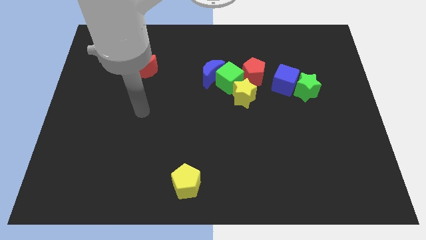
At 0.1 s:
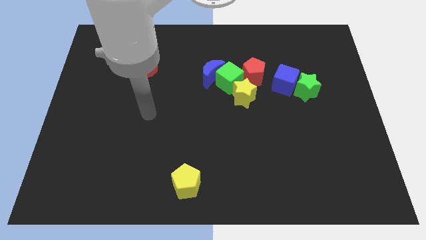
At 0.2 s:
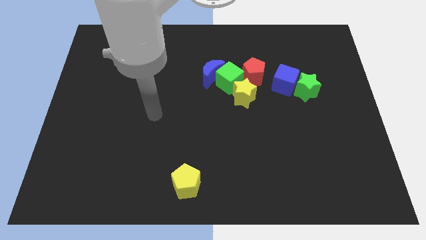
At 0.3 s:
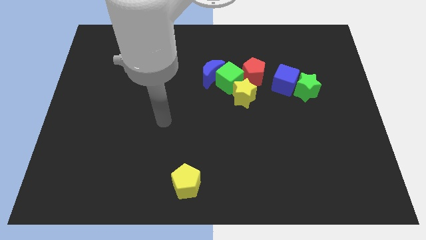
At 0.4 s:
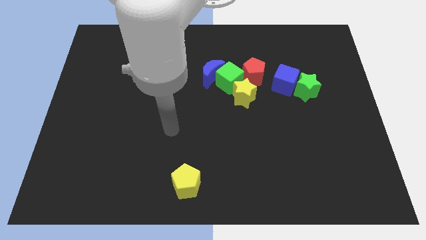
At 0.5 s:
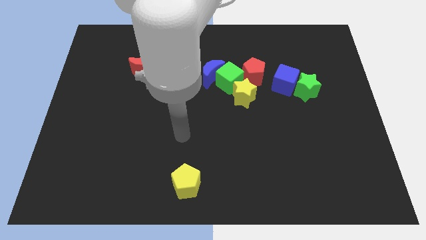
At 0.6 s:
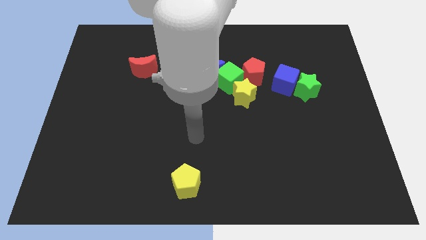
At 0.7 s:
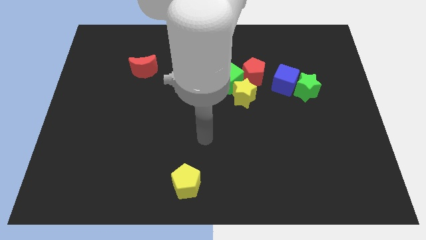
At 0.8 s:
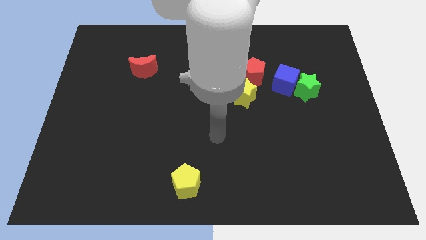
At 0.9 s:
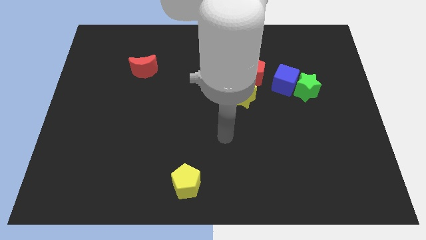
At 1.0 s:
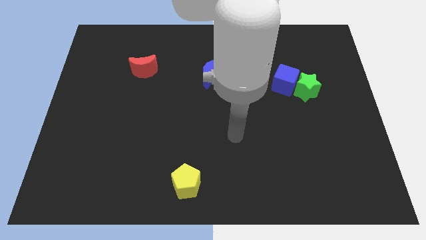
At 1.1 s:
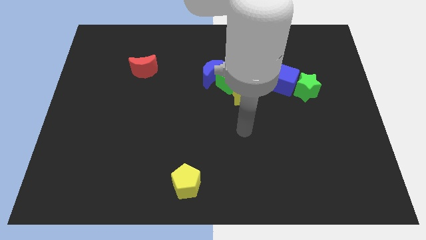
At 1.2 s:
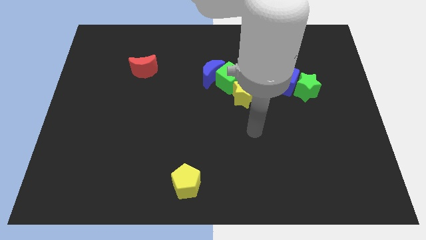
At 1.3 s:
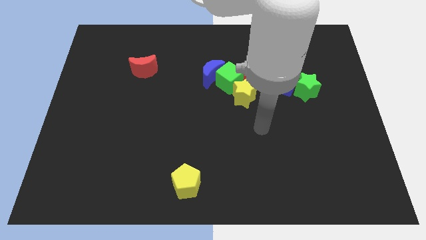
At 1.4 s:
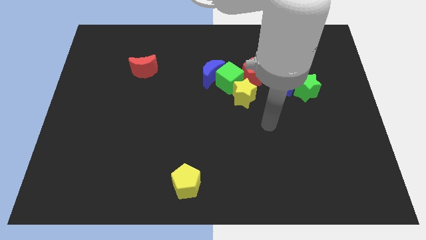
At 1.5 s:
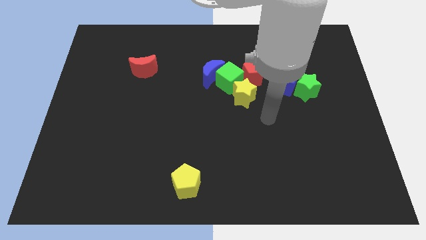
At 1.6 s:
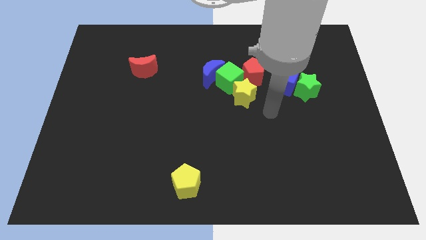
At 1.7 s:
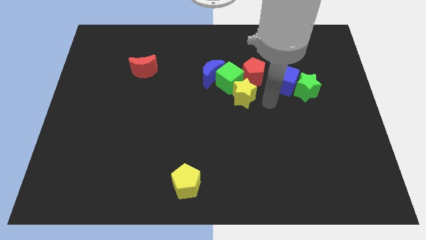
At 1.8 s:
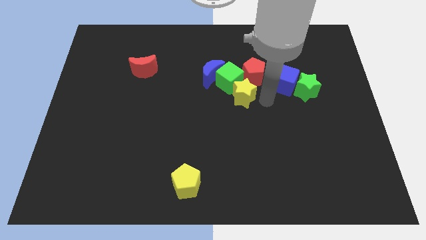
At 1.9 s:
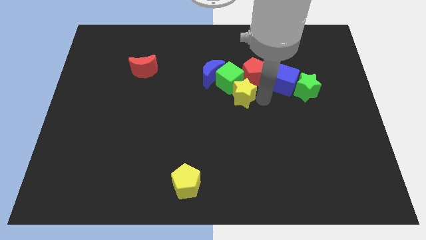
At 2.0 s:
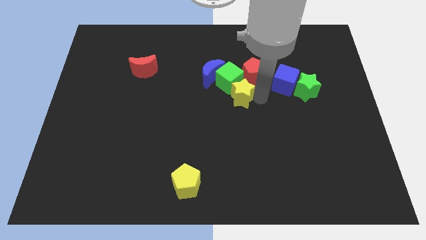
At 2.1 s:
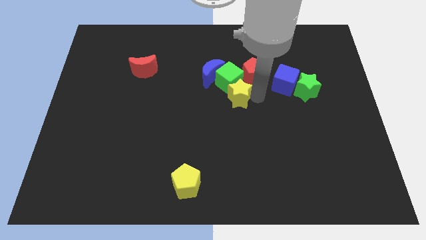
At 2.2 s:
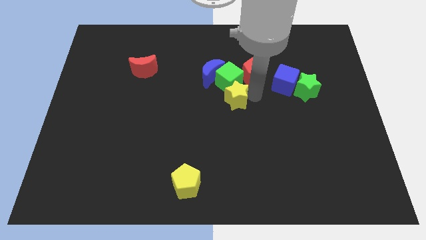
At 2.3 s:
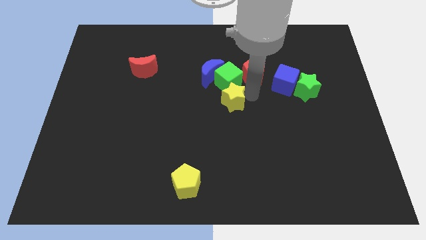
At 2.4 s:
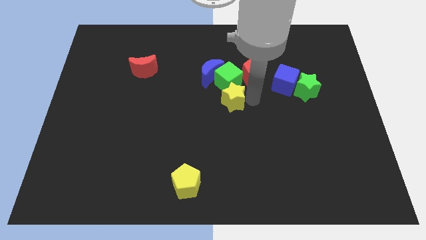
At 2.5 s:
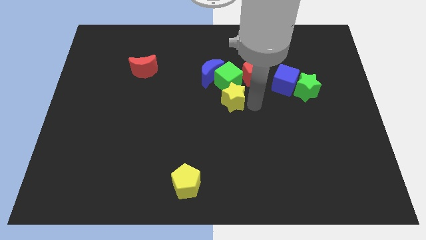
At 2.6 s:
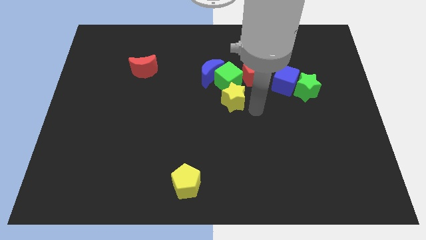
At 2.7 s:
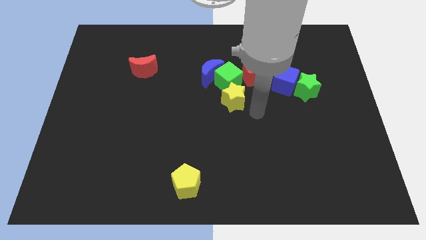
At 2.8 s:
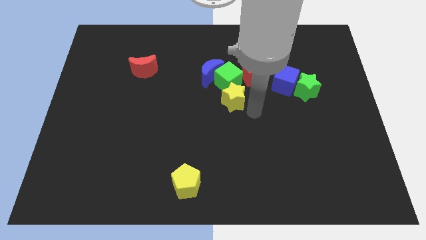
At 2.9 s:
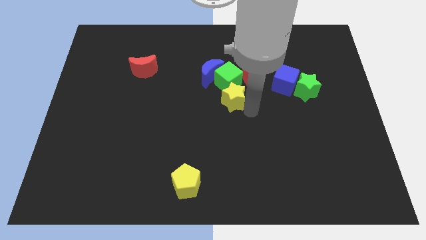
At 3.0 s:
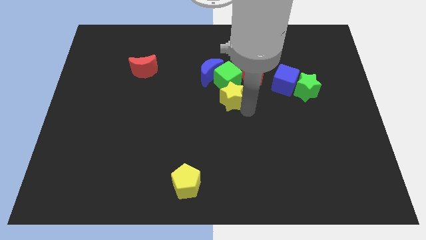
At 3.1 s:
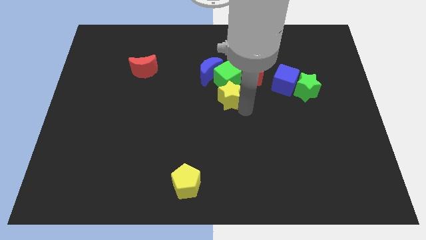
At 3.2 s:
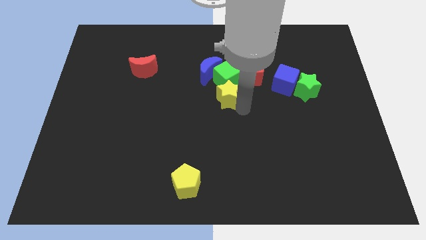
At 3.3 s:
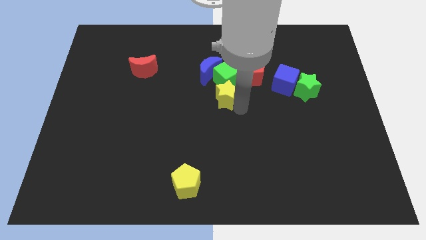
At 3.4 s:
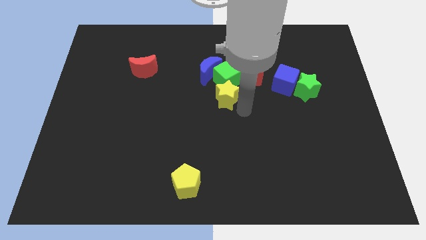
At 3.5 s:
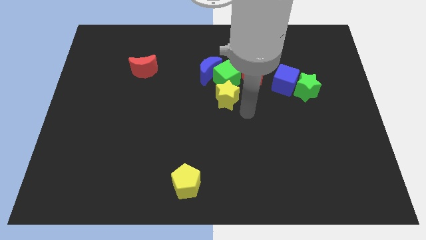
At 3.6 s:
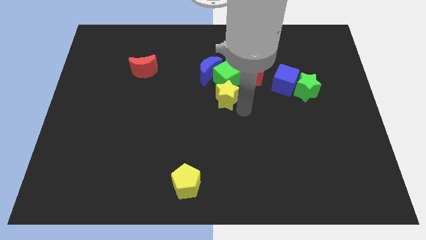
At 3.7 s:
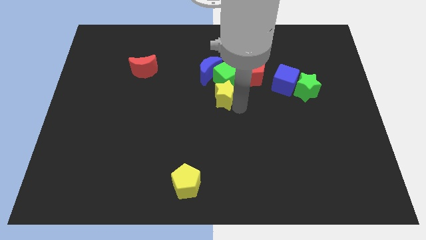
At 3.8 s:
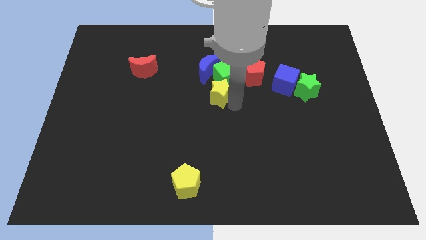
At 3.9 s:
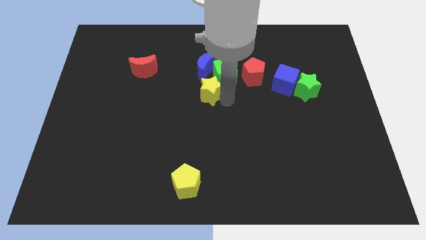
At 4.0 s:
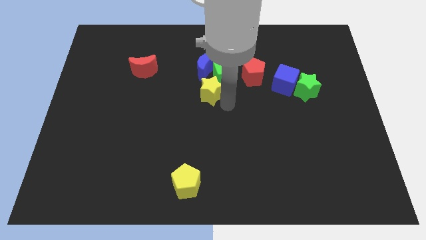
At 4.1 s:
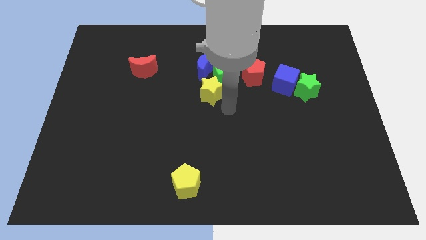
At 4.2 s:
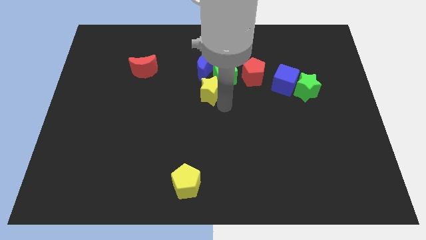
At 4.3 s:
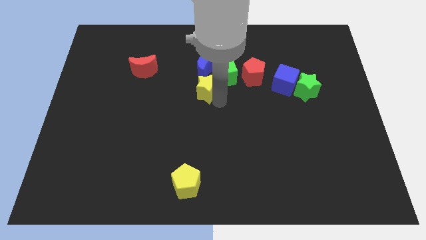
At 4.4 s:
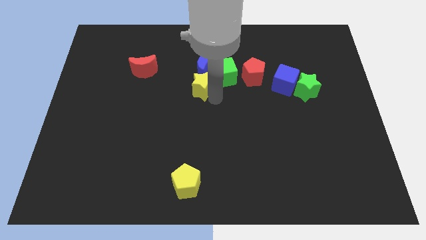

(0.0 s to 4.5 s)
push the yellow star somewhat up and then left

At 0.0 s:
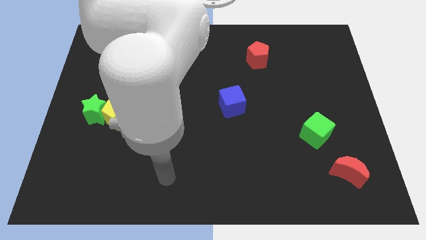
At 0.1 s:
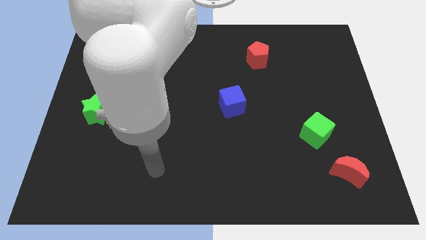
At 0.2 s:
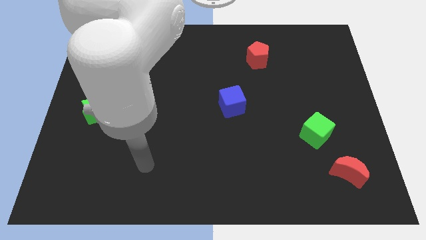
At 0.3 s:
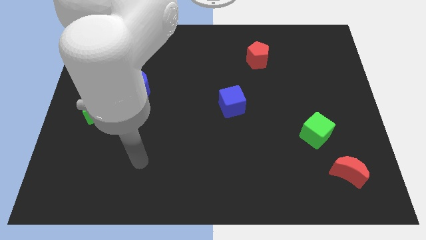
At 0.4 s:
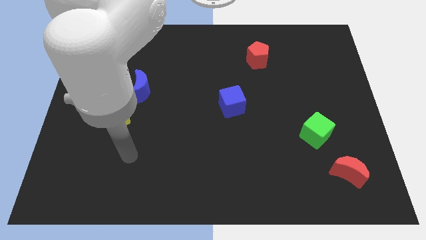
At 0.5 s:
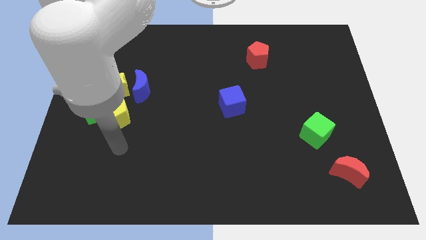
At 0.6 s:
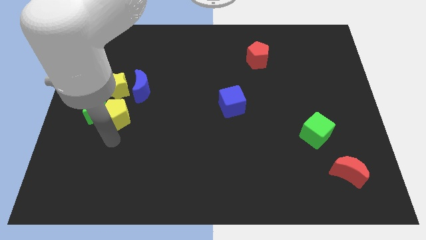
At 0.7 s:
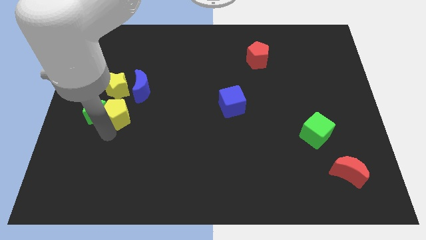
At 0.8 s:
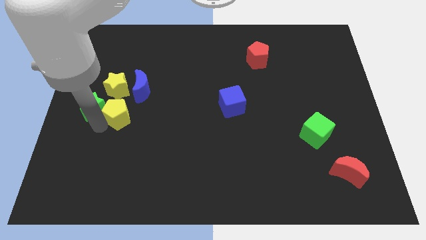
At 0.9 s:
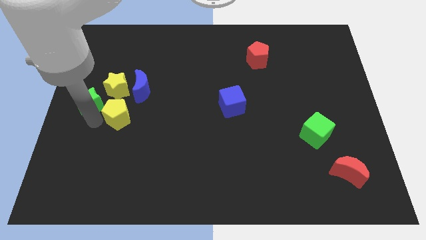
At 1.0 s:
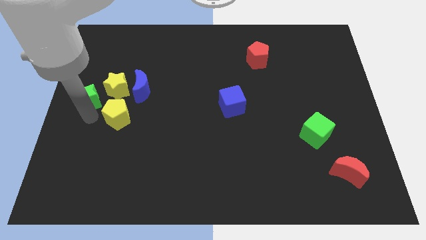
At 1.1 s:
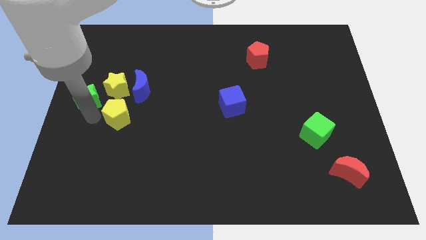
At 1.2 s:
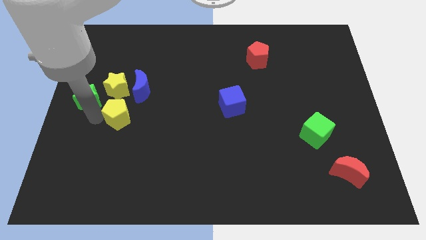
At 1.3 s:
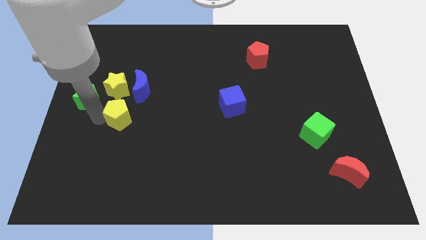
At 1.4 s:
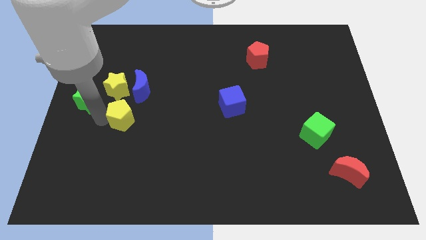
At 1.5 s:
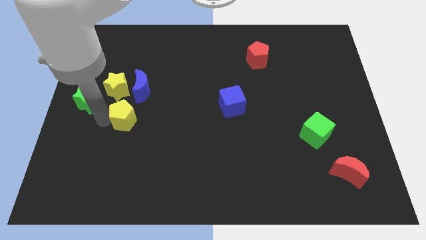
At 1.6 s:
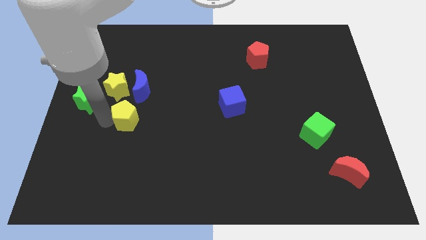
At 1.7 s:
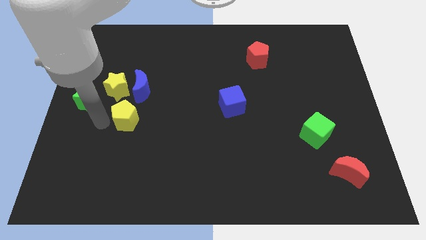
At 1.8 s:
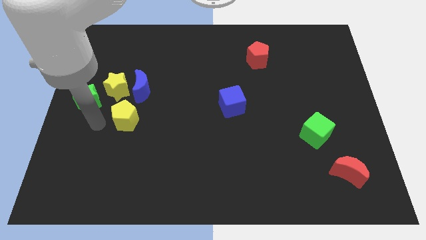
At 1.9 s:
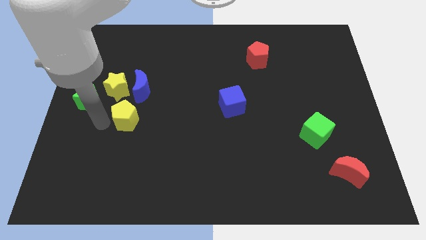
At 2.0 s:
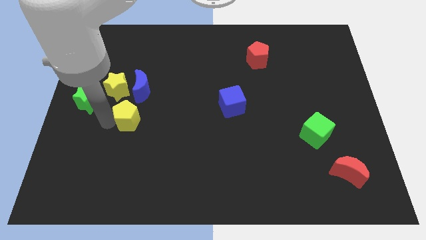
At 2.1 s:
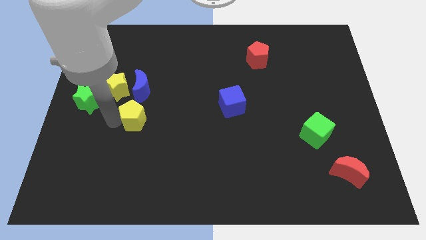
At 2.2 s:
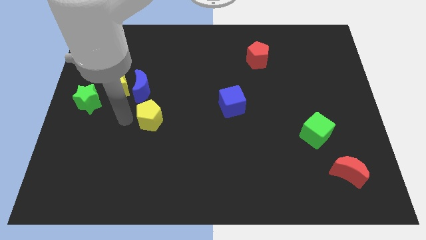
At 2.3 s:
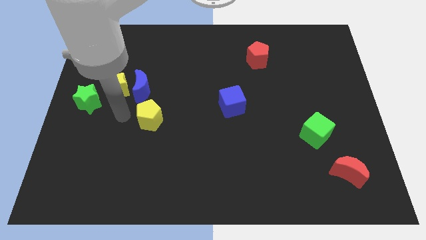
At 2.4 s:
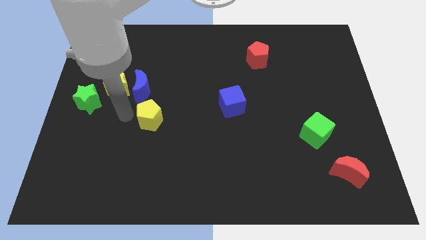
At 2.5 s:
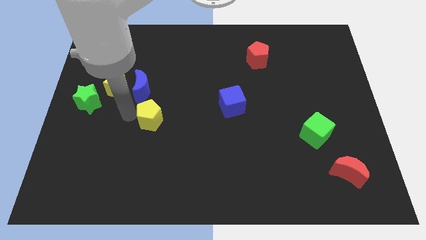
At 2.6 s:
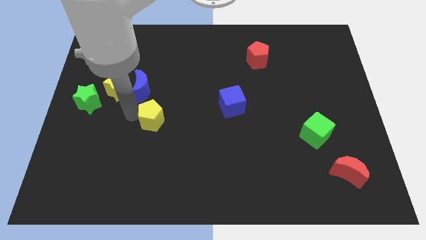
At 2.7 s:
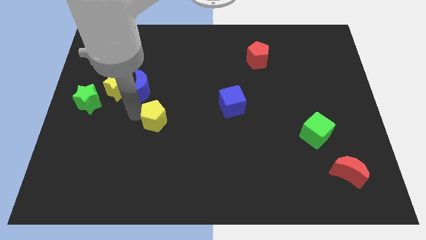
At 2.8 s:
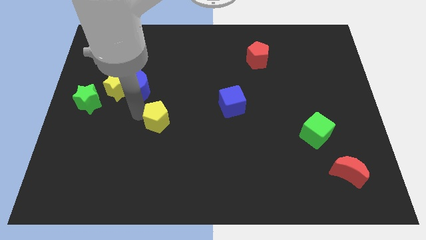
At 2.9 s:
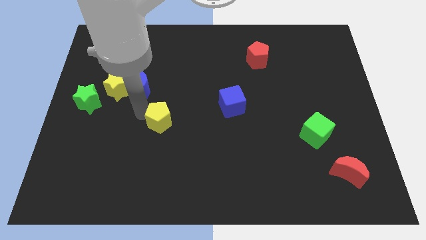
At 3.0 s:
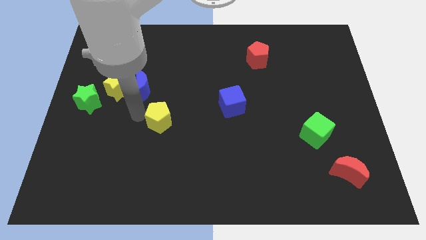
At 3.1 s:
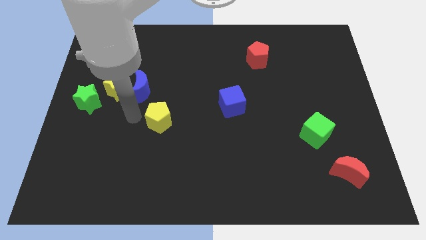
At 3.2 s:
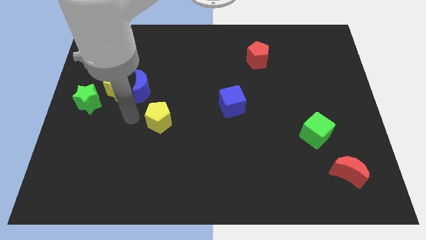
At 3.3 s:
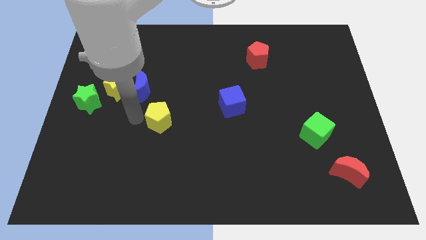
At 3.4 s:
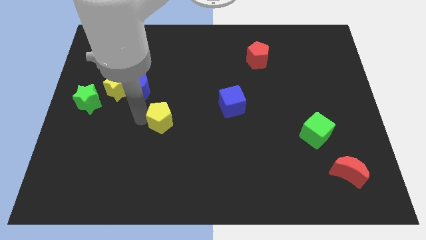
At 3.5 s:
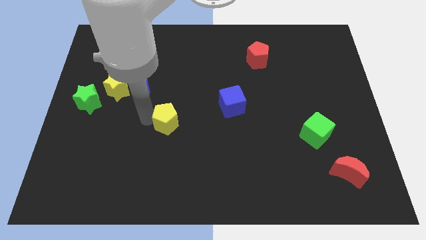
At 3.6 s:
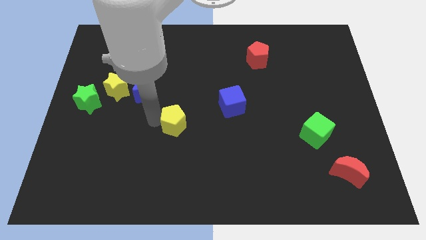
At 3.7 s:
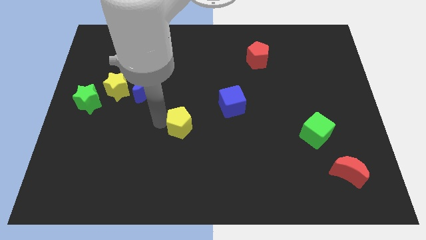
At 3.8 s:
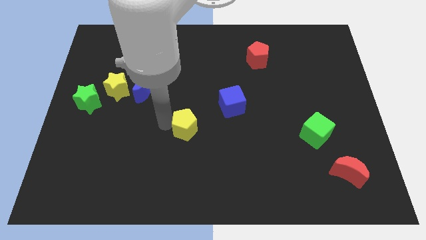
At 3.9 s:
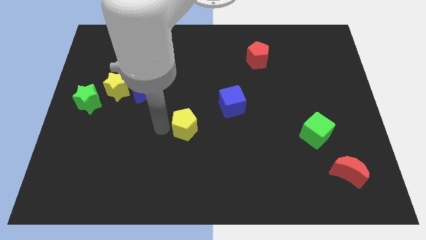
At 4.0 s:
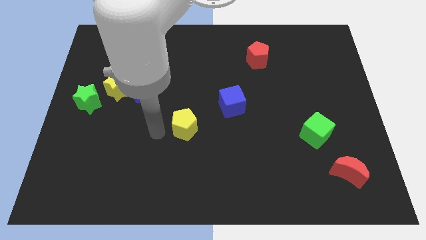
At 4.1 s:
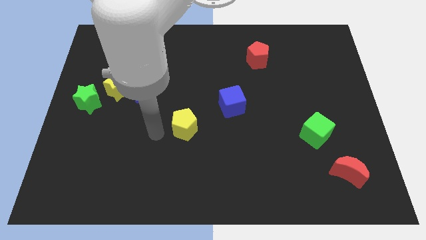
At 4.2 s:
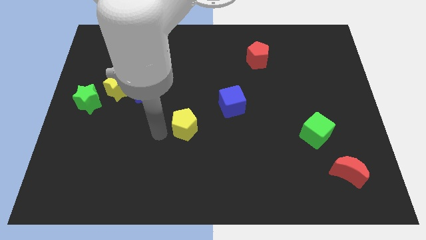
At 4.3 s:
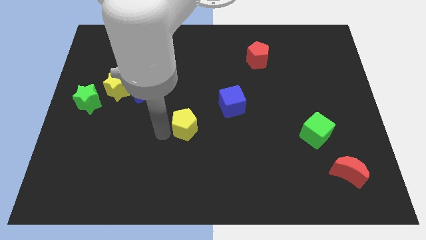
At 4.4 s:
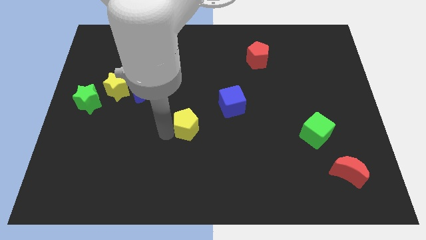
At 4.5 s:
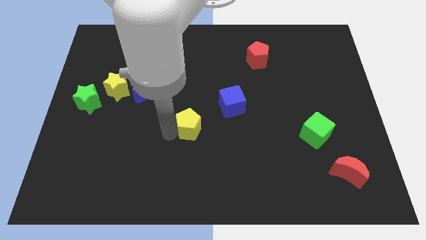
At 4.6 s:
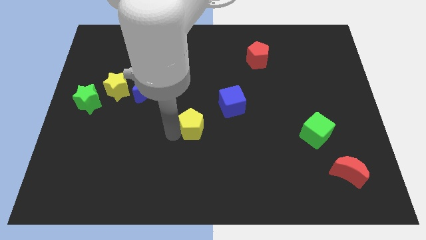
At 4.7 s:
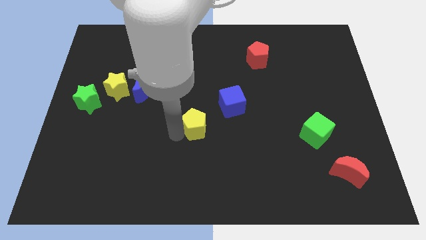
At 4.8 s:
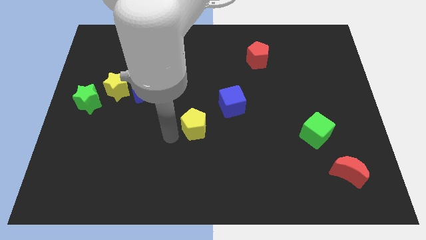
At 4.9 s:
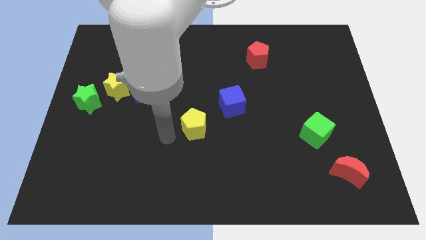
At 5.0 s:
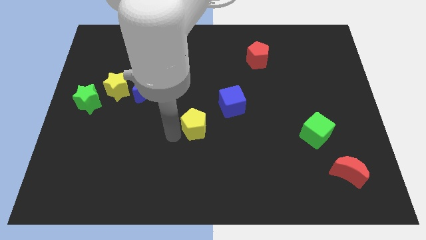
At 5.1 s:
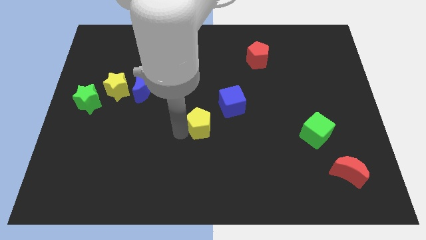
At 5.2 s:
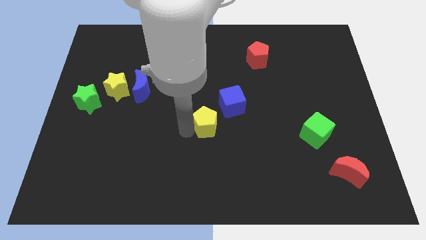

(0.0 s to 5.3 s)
slide the yellow pentagon to the right
